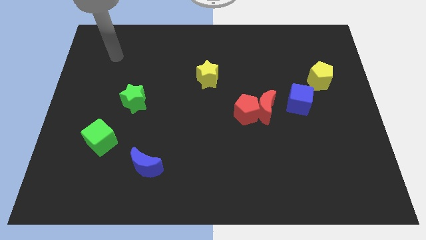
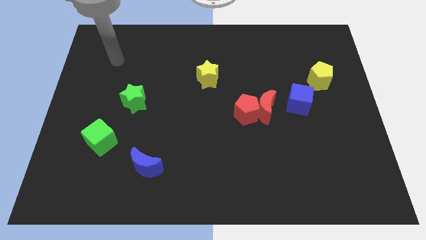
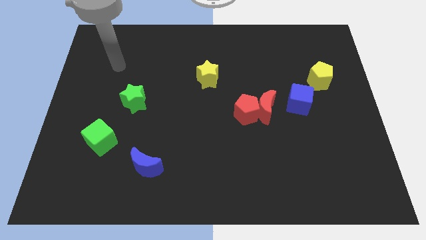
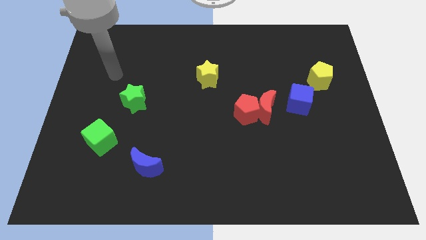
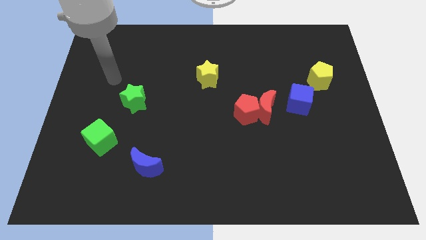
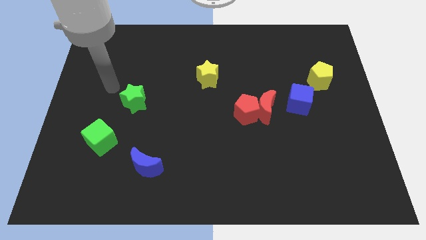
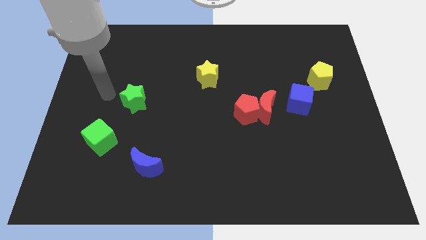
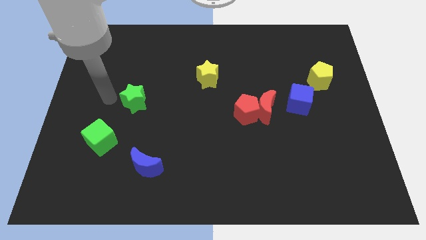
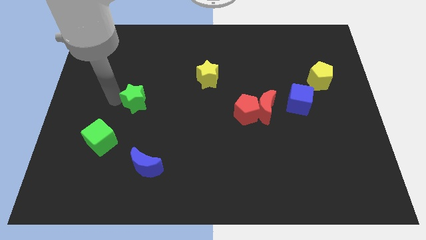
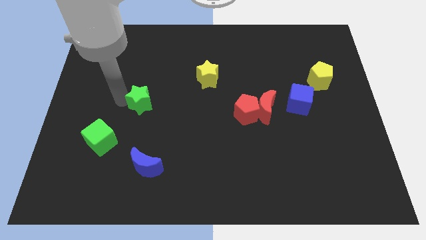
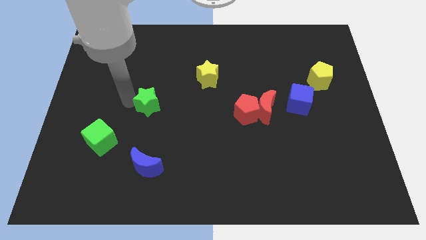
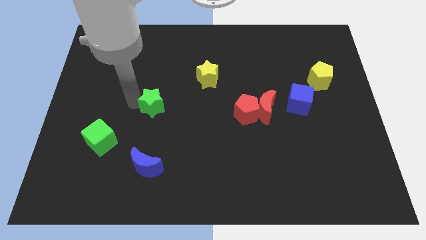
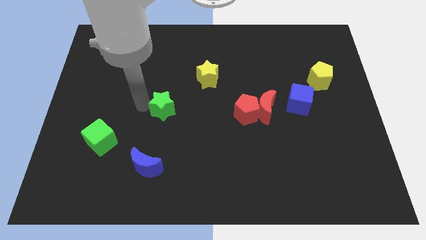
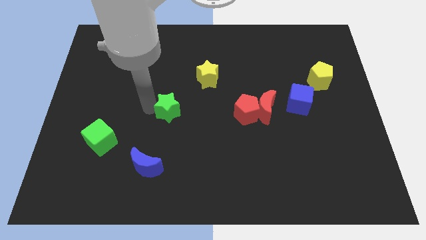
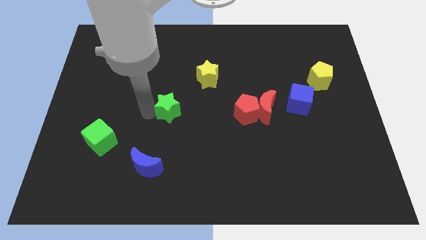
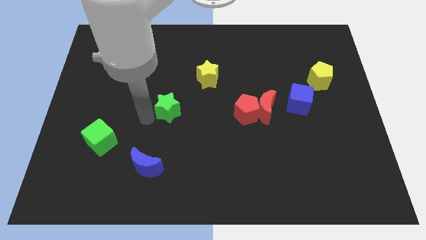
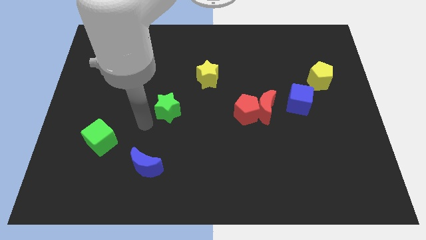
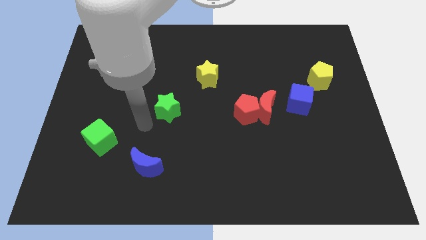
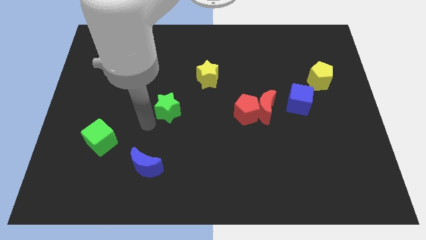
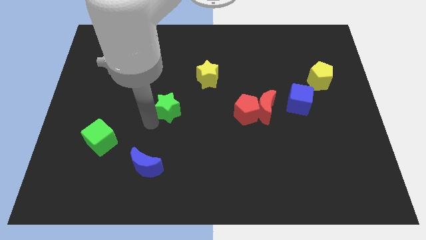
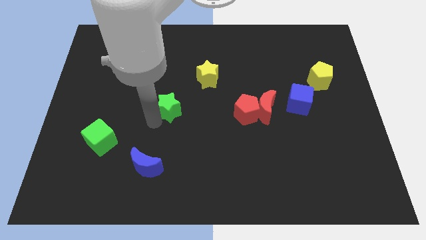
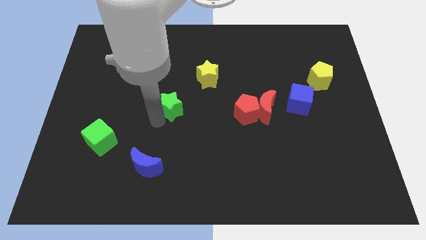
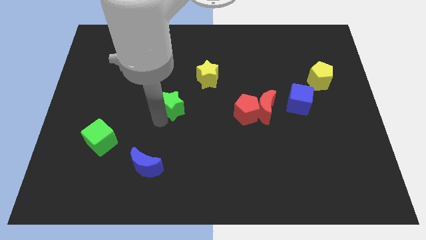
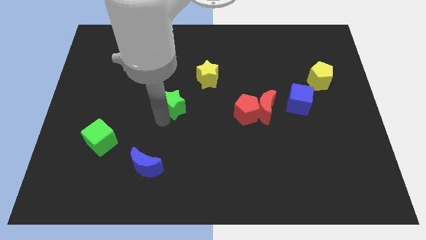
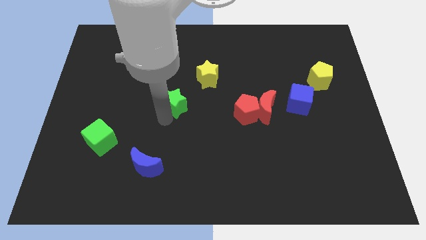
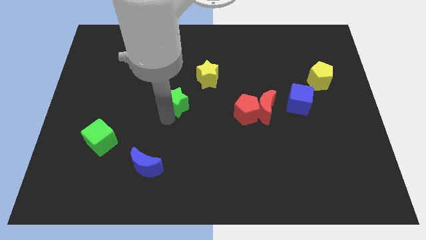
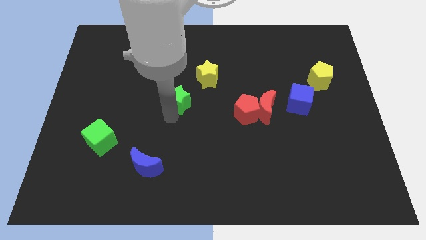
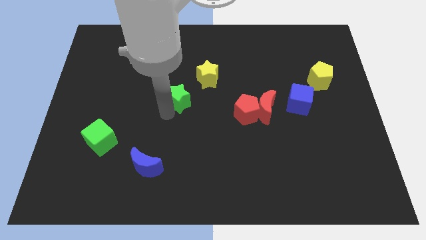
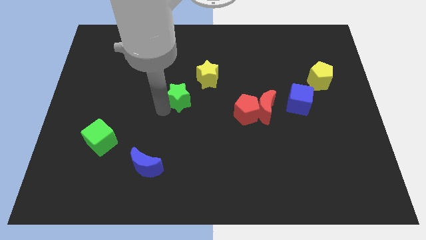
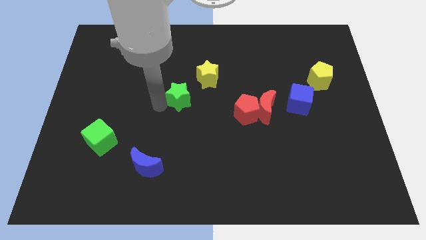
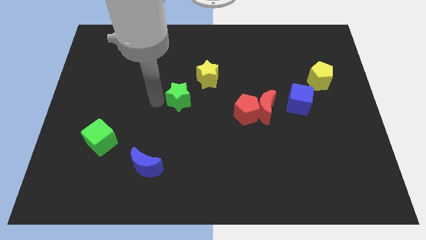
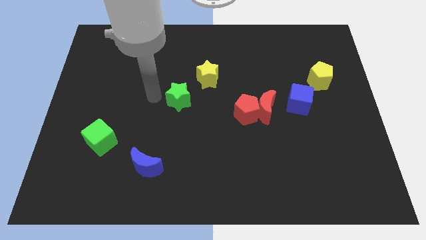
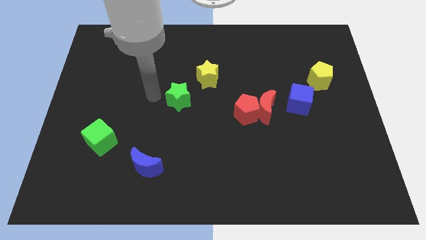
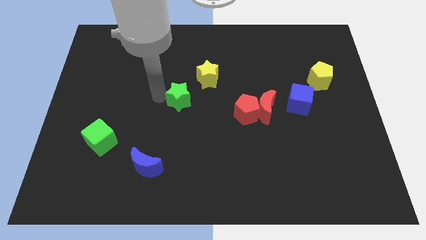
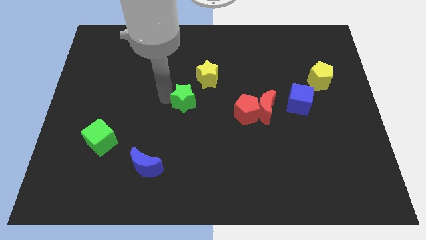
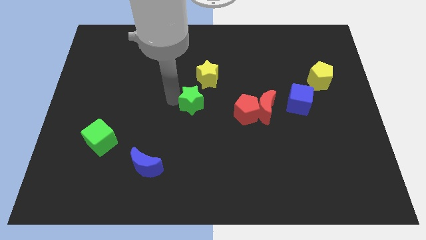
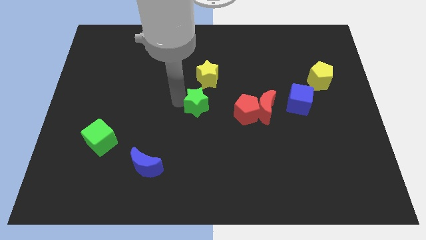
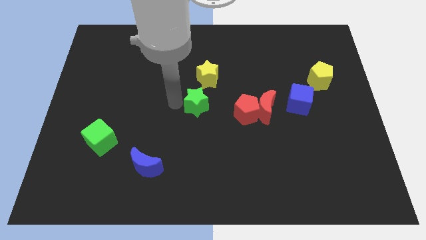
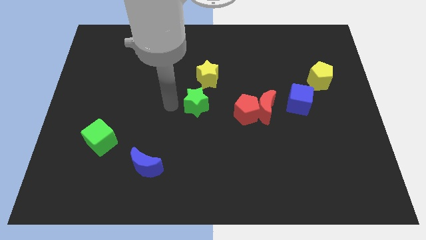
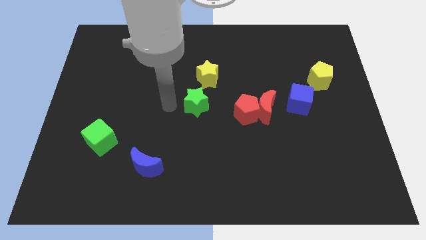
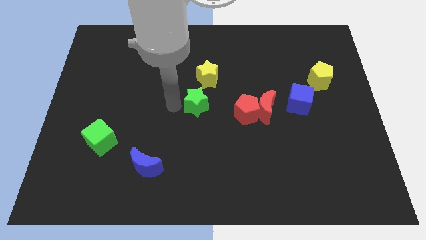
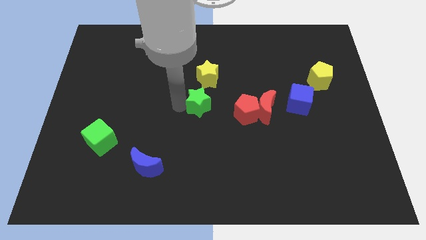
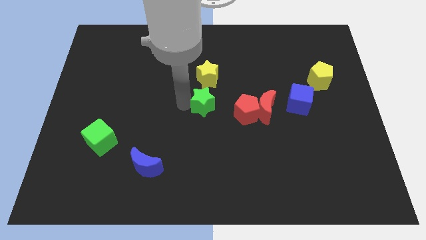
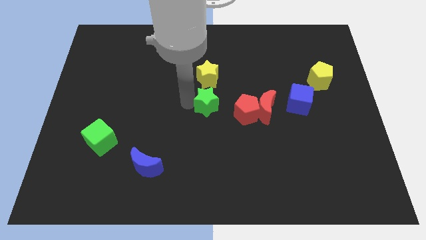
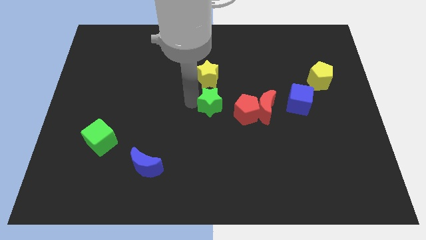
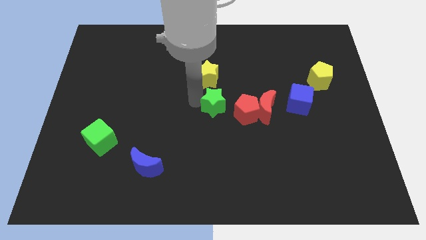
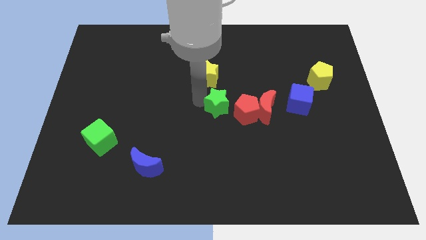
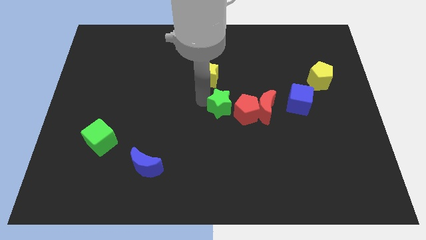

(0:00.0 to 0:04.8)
move the green star towards the red pentagon

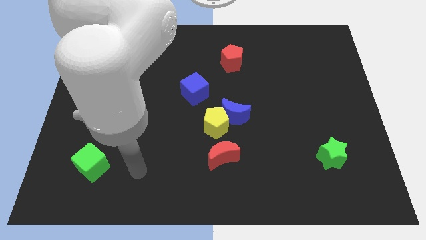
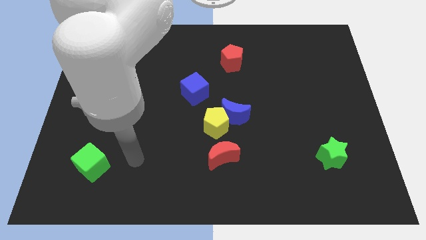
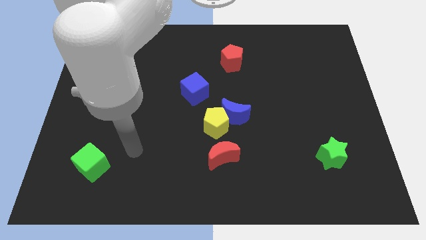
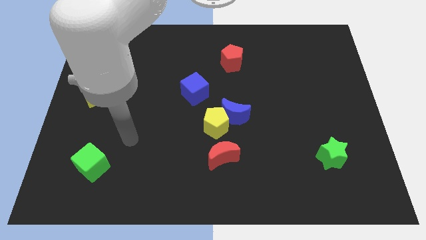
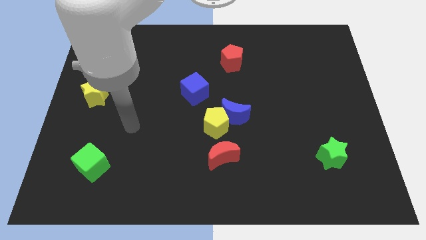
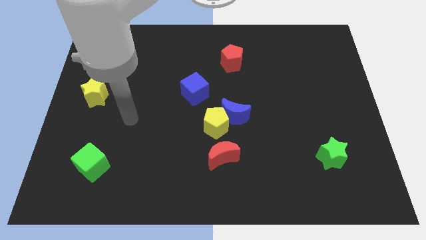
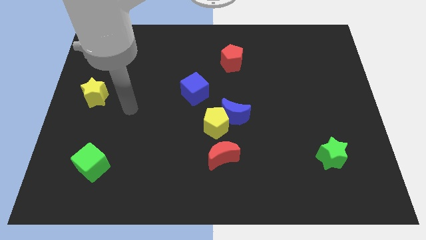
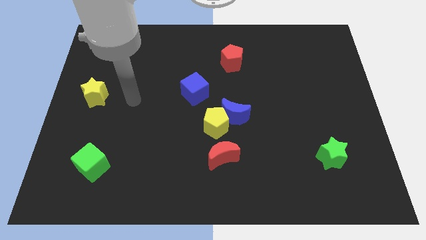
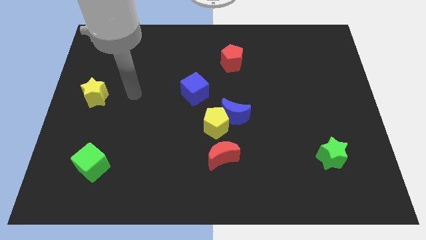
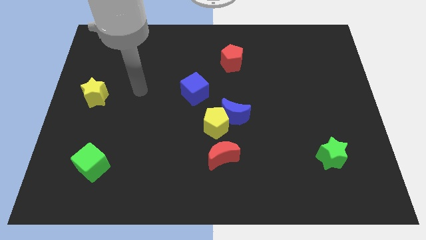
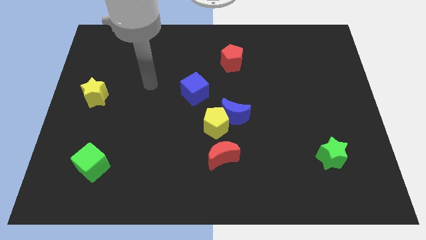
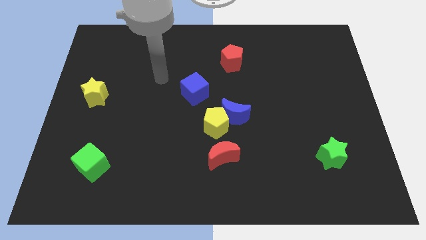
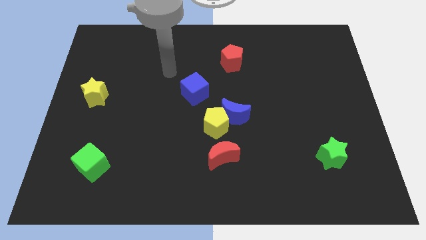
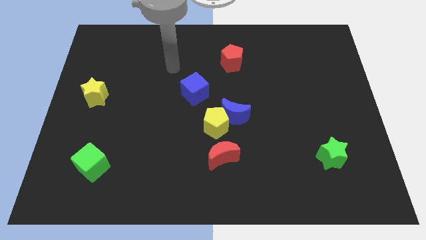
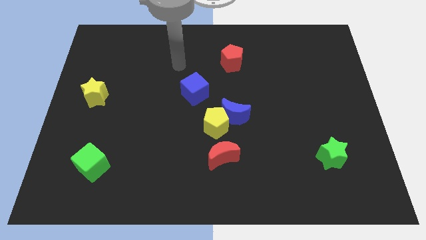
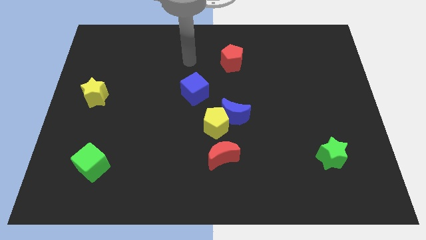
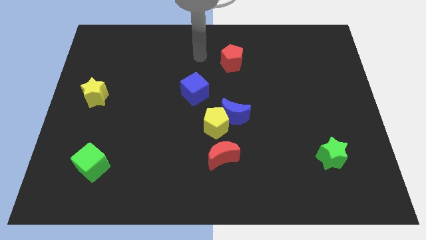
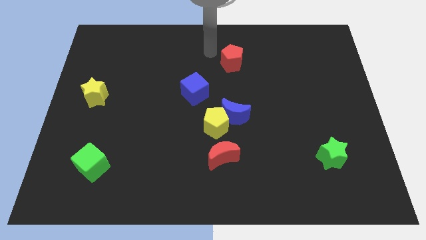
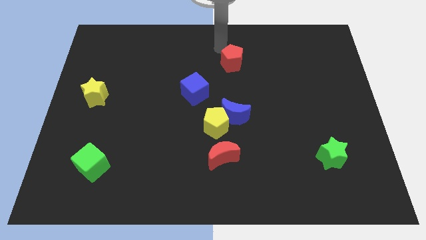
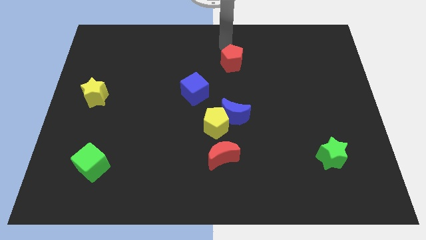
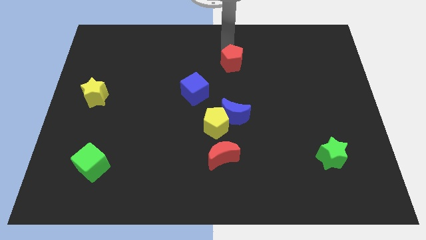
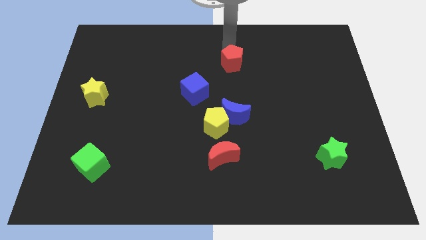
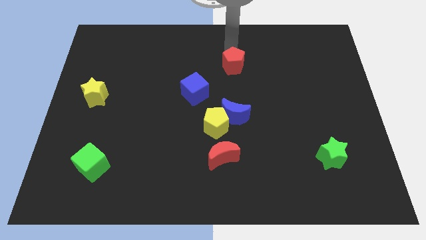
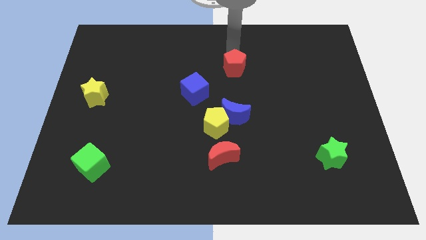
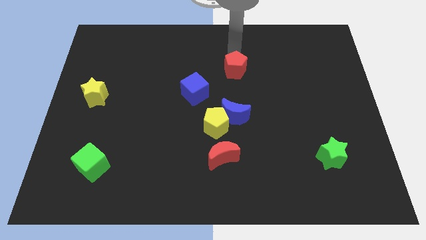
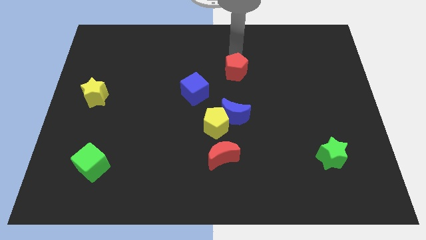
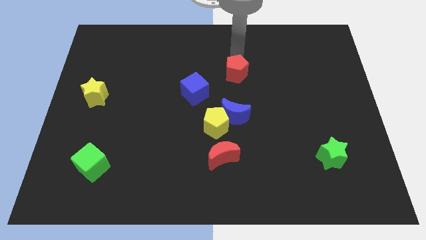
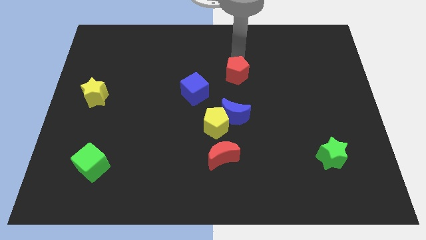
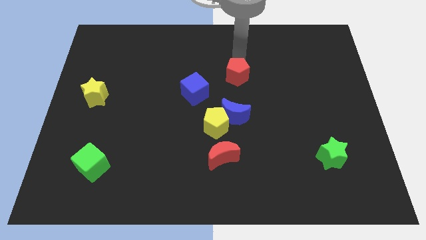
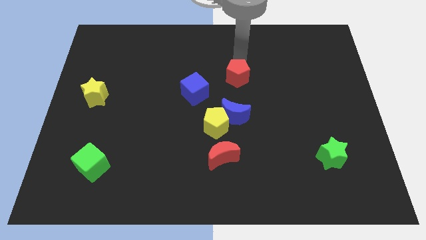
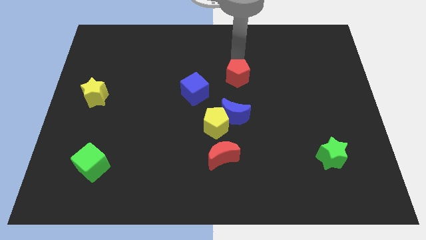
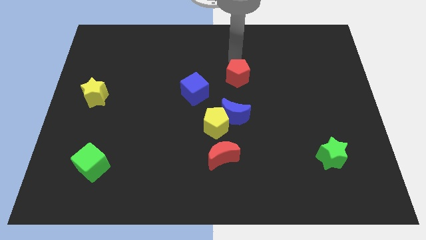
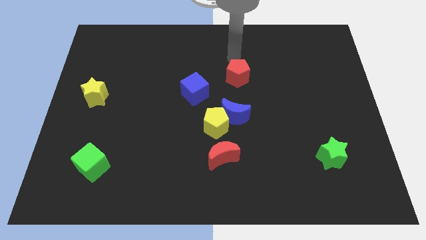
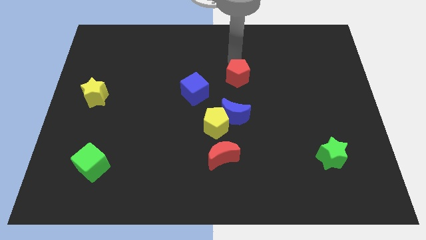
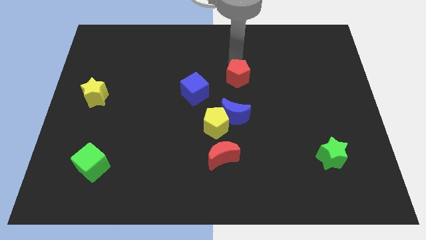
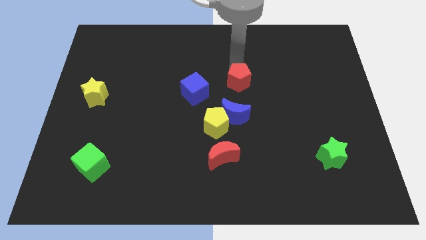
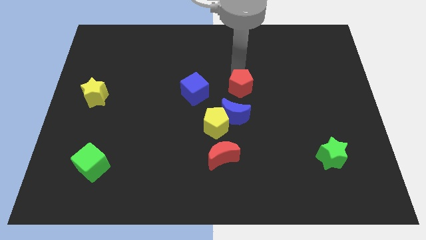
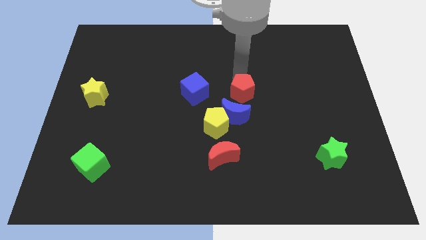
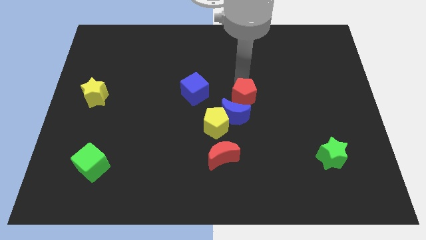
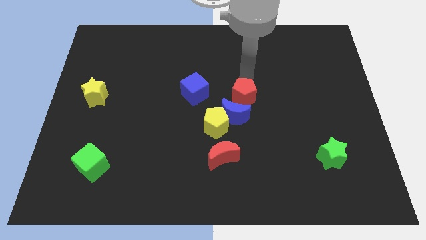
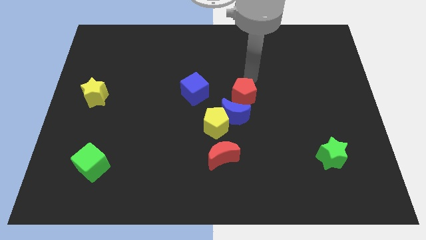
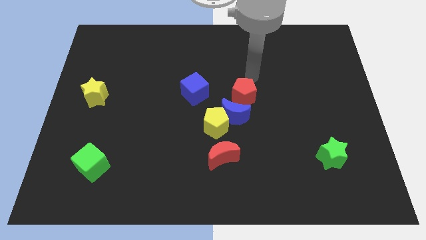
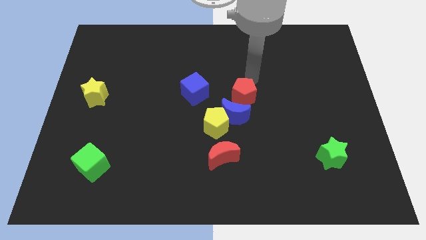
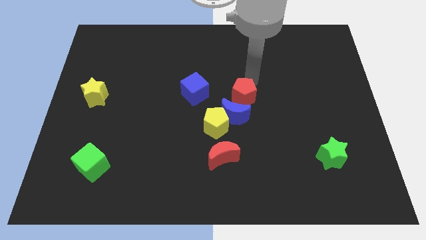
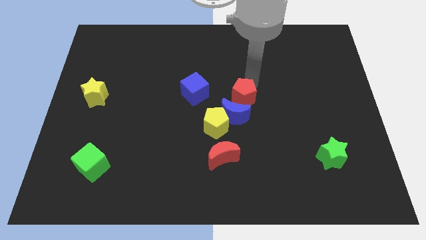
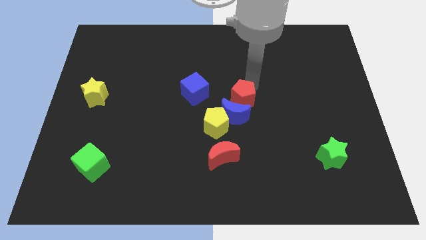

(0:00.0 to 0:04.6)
slide the red pentagon close to the blue moon
